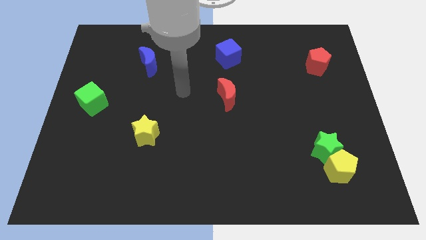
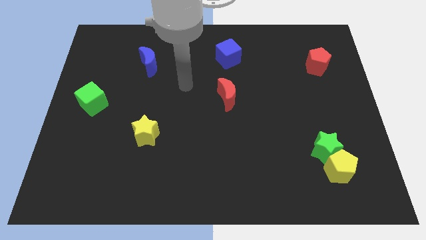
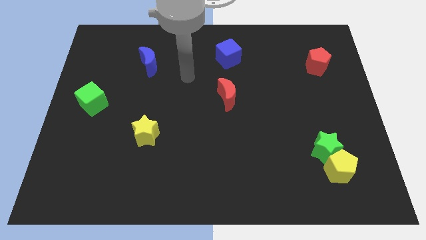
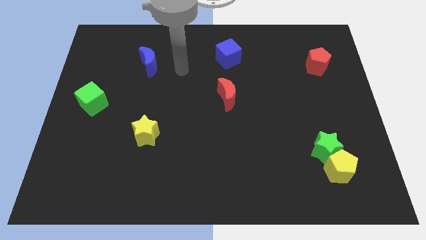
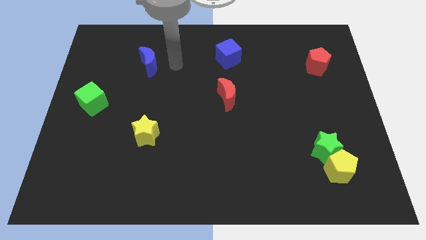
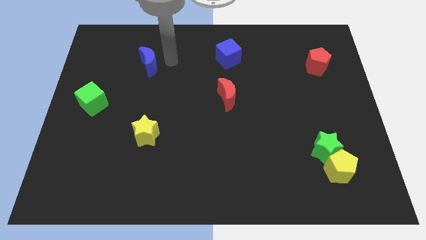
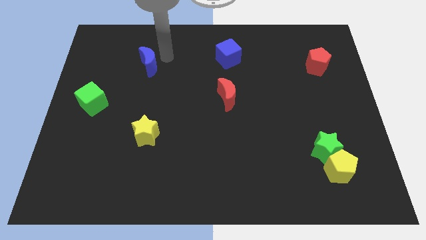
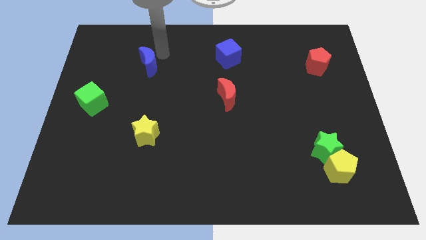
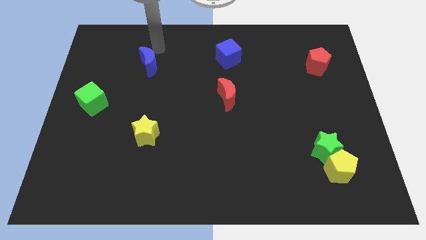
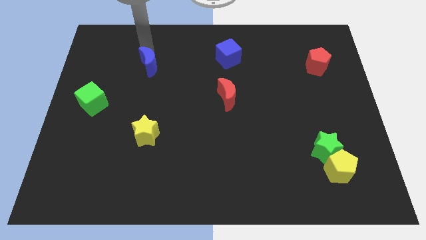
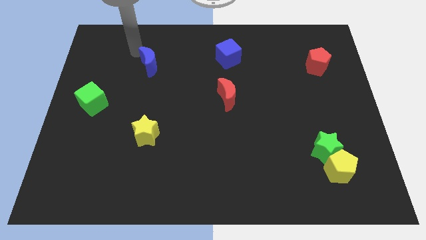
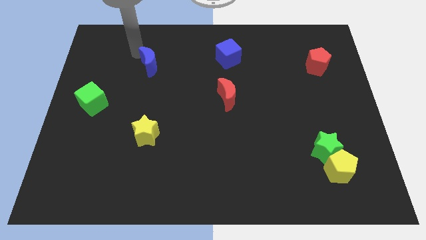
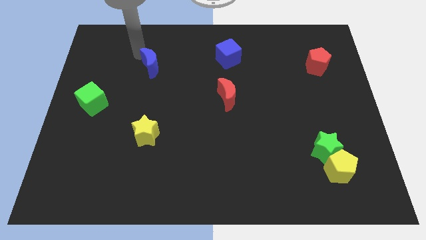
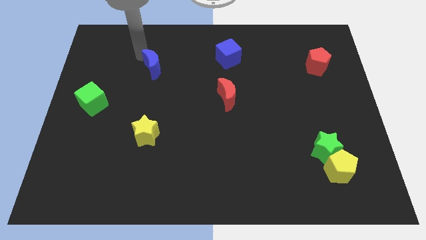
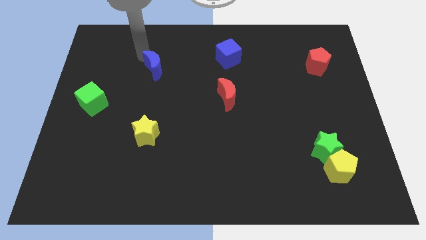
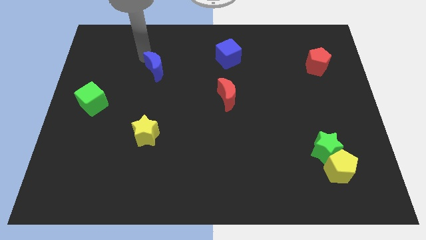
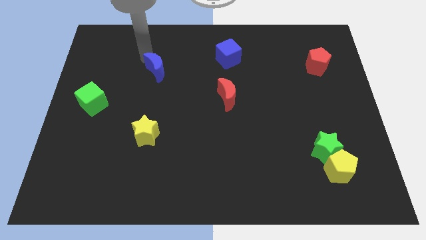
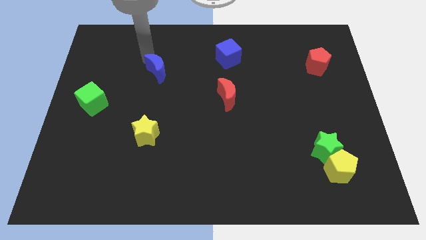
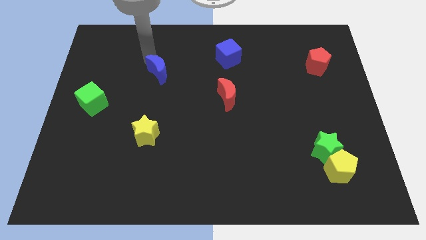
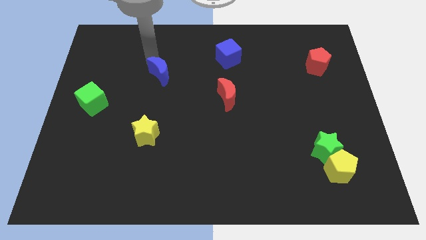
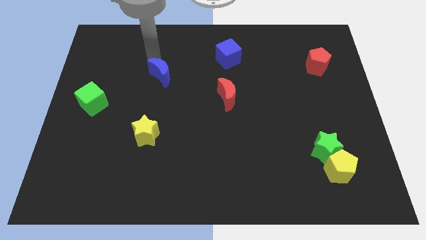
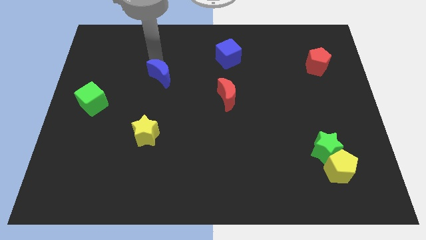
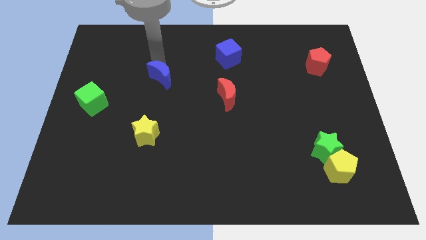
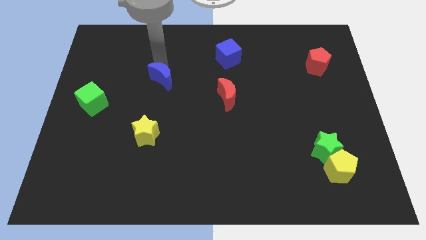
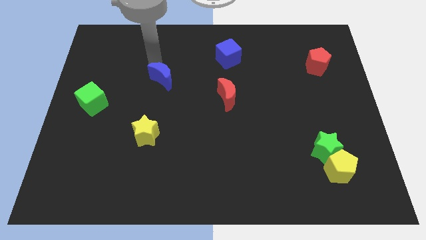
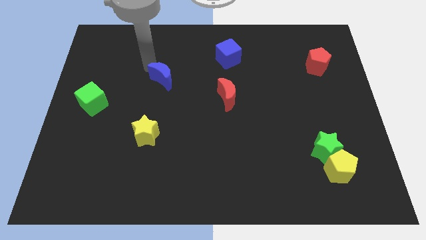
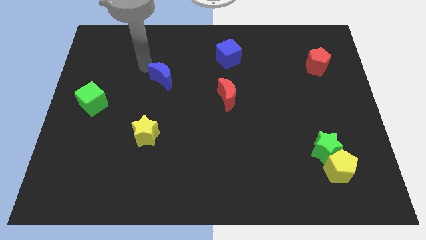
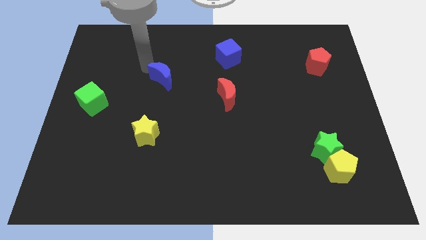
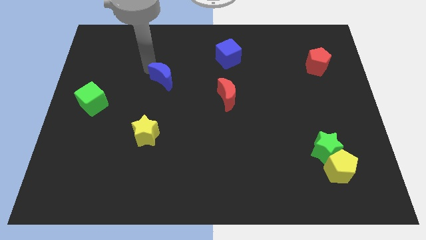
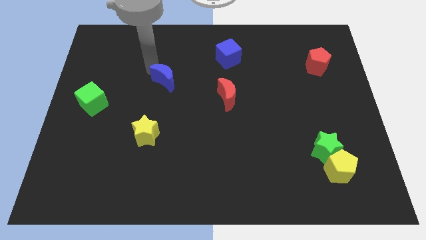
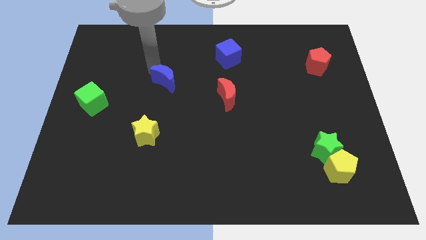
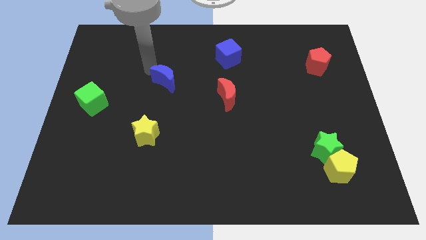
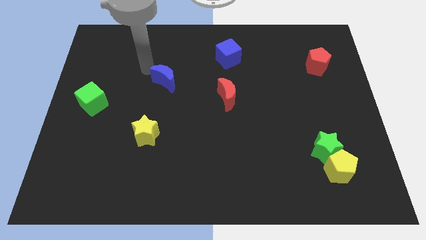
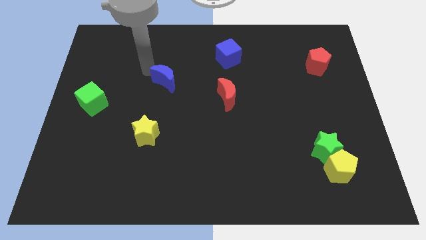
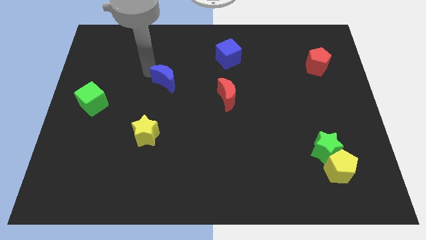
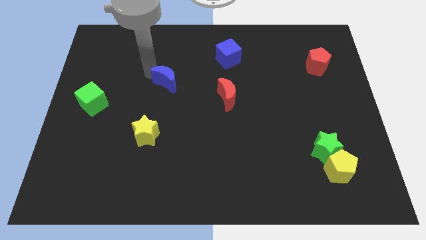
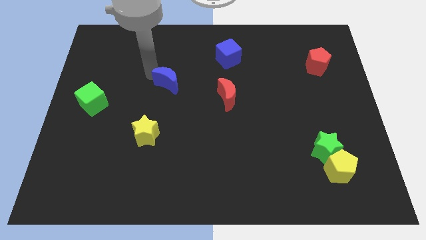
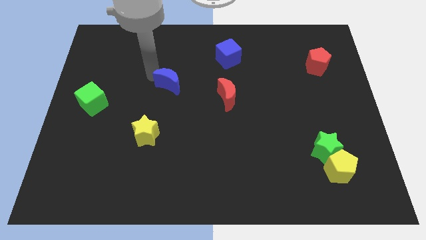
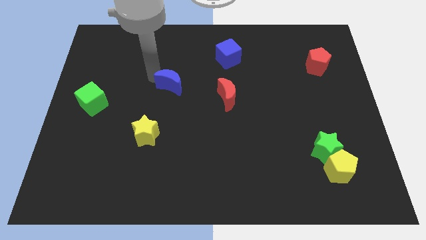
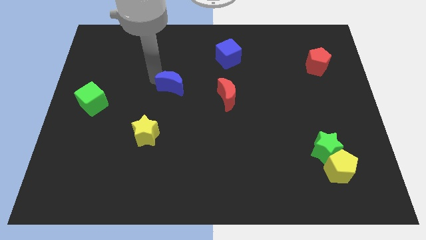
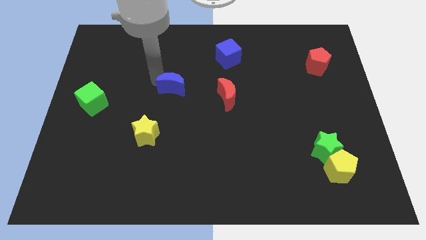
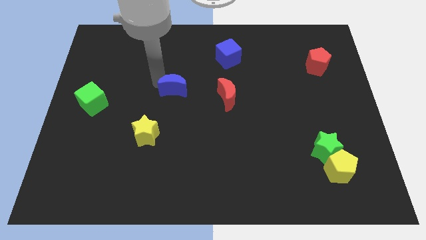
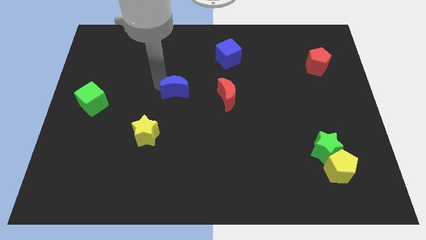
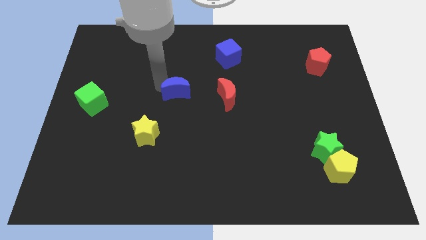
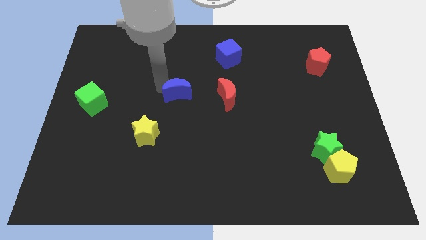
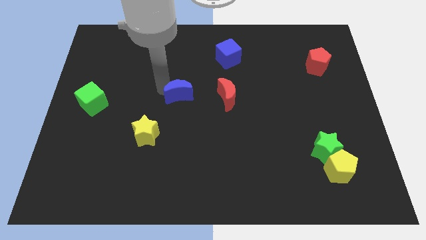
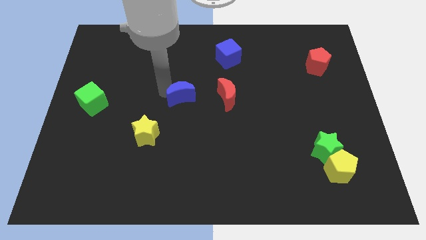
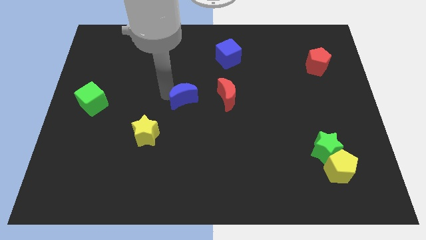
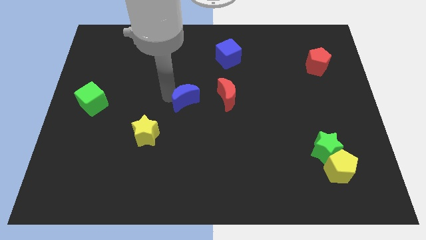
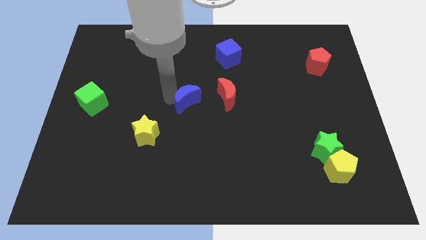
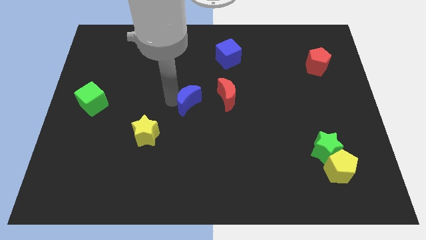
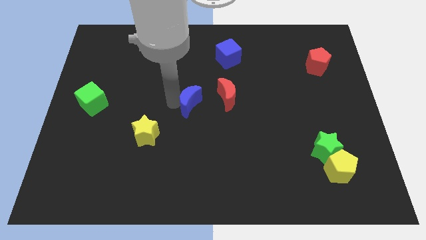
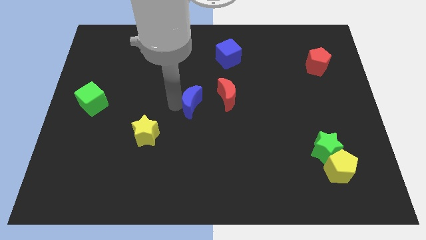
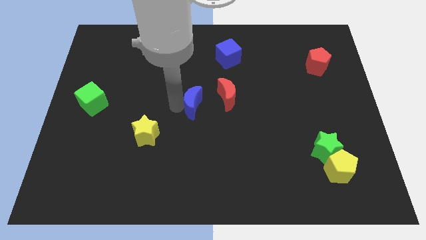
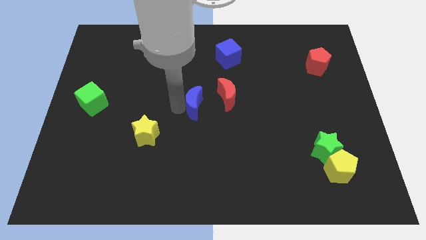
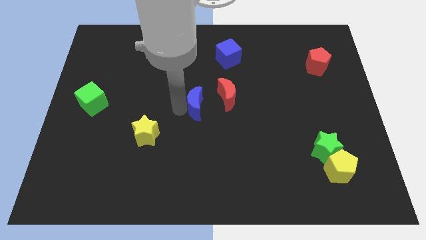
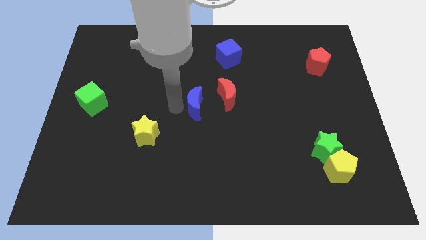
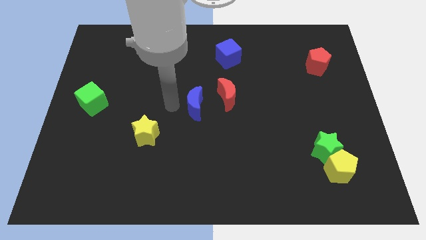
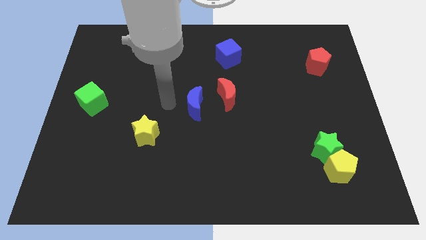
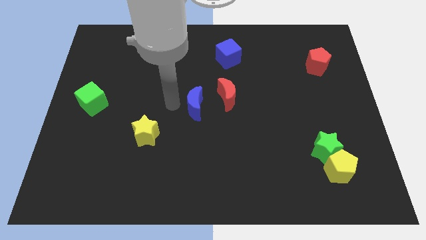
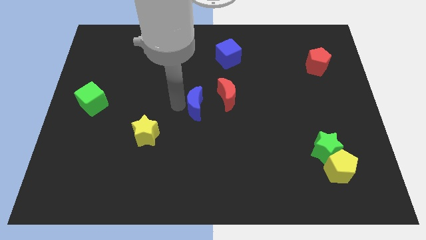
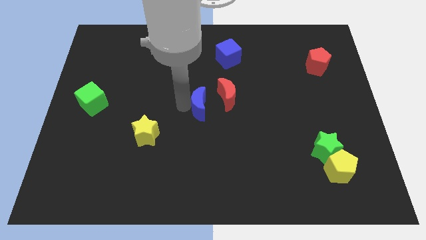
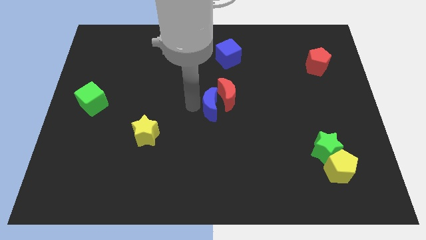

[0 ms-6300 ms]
push the blue moon diagonally downwards and right

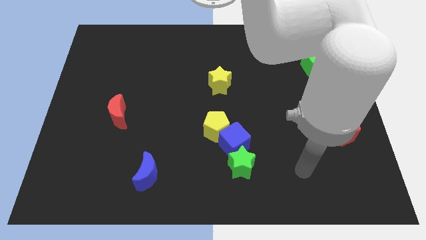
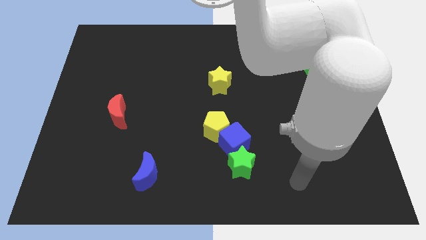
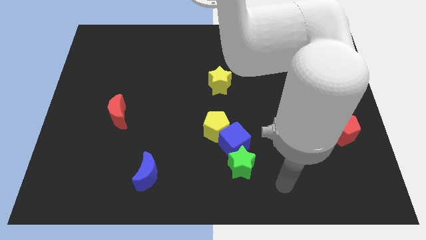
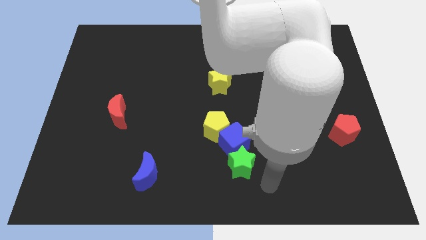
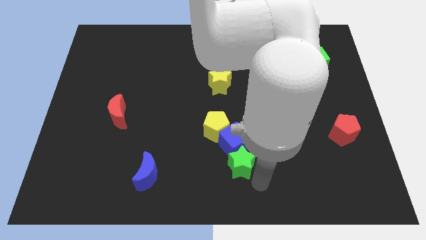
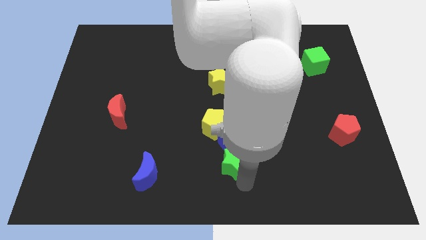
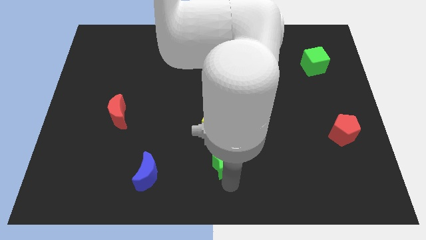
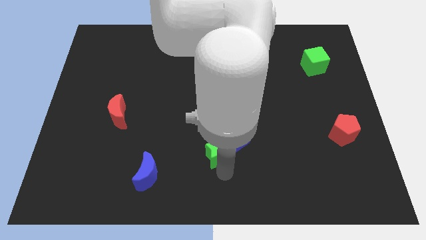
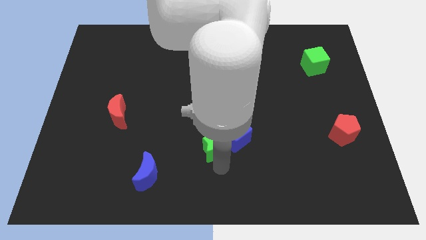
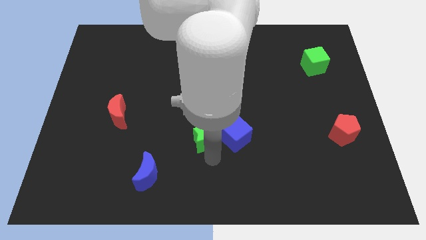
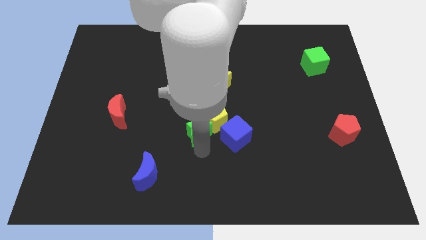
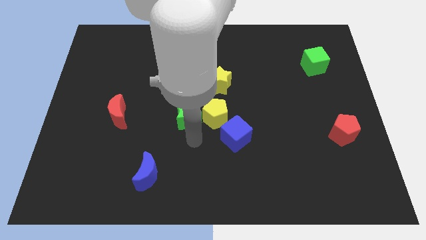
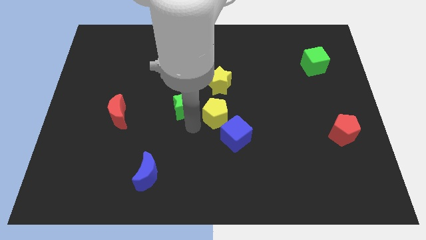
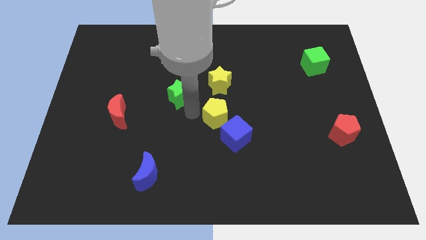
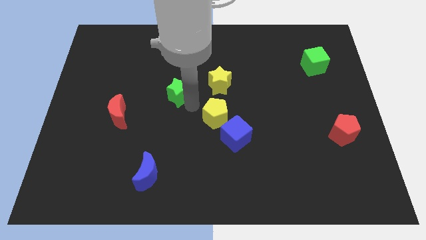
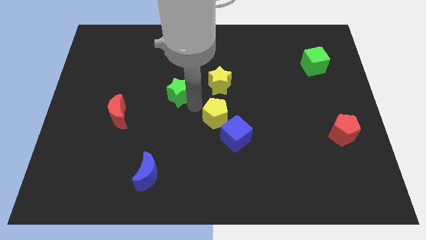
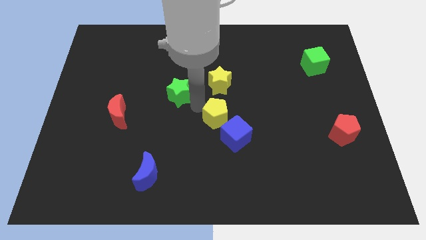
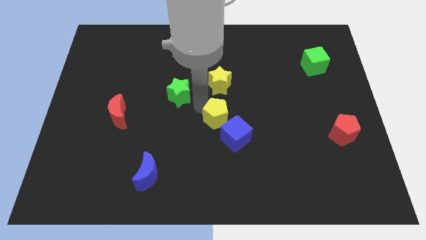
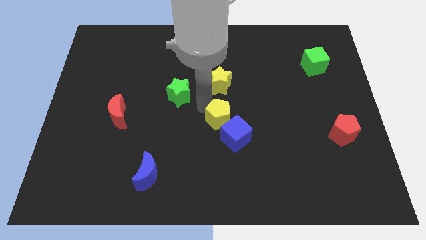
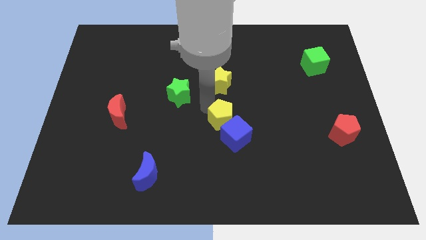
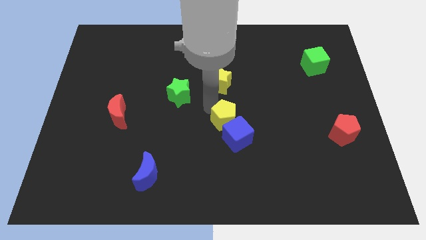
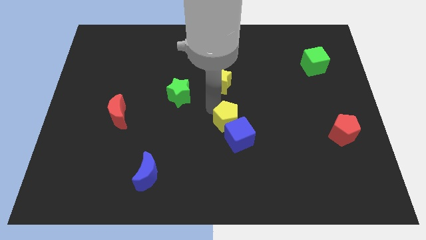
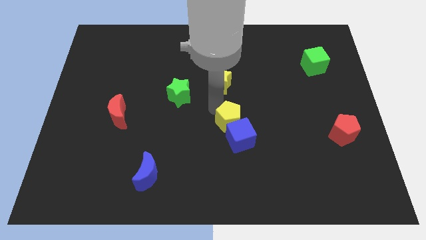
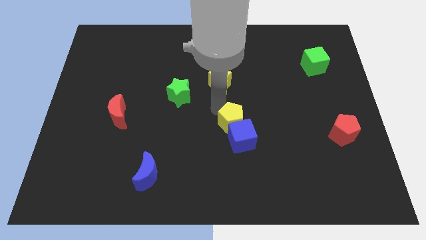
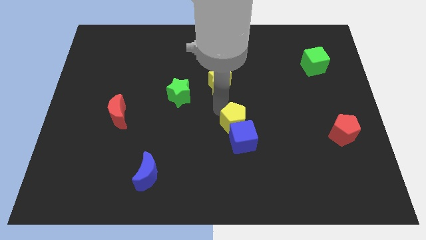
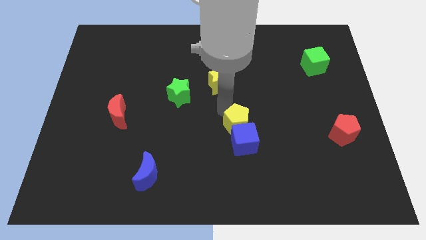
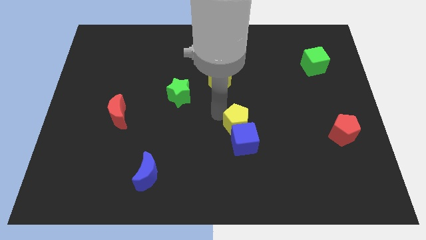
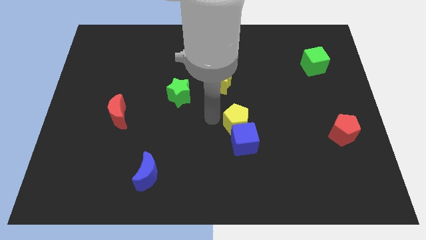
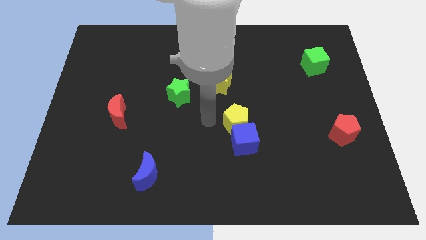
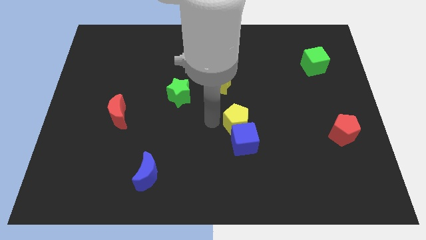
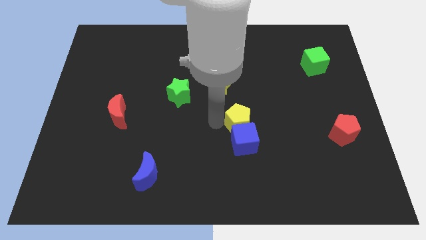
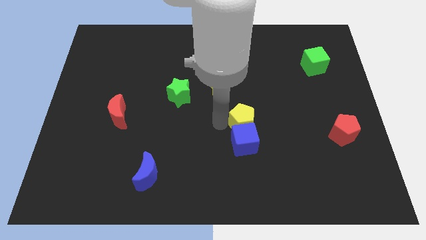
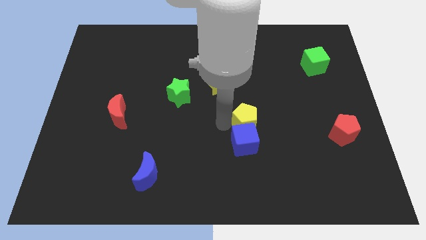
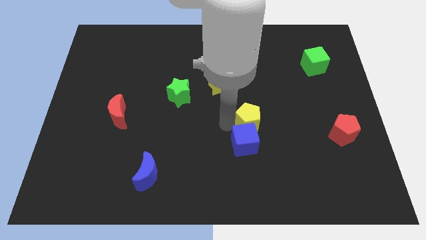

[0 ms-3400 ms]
slightly slide the yellow pentagon right
